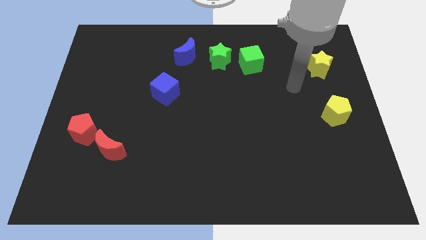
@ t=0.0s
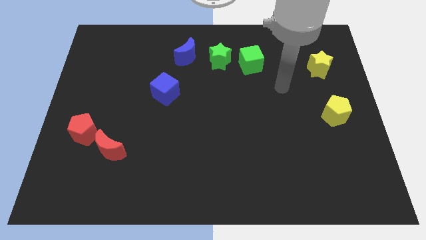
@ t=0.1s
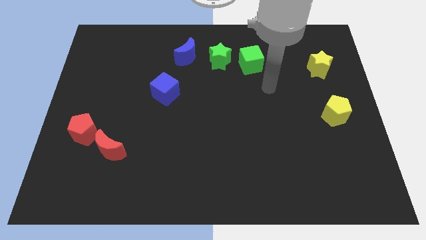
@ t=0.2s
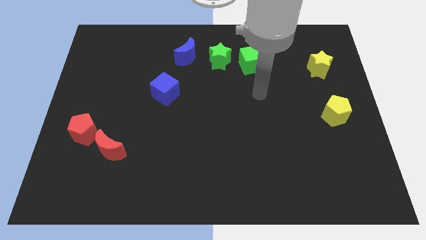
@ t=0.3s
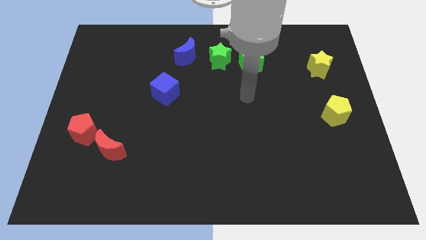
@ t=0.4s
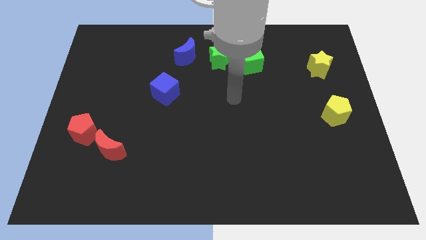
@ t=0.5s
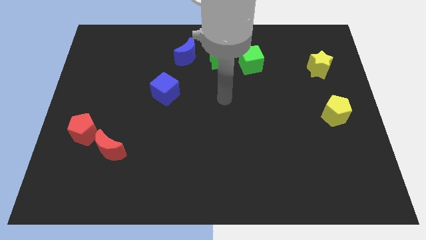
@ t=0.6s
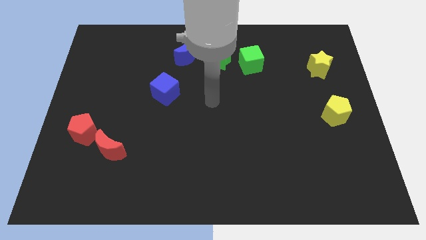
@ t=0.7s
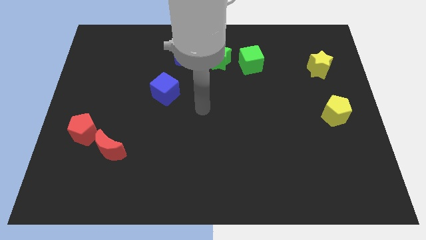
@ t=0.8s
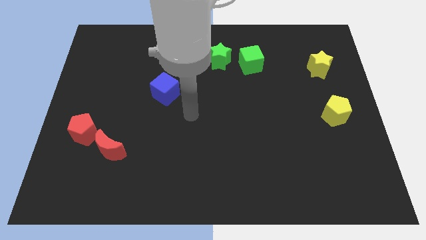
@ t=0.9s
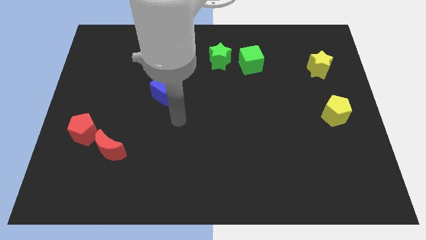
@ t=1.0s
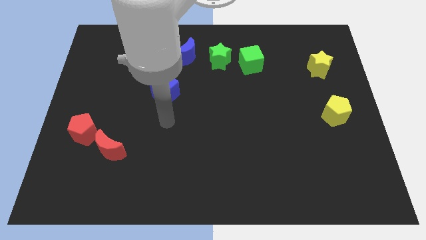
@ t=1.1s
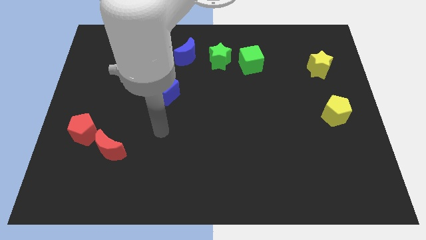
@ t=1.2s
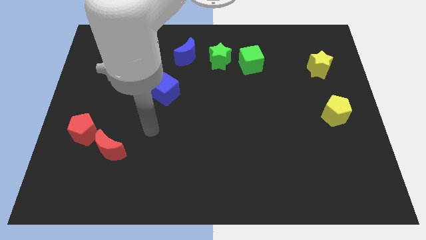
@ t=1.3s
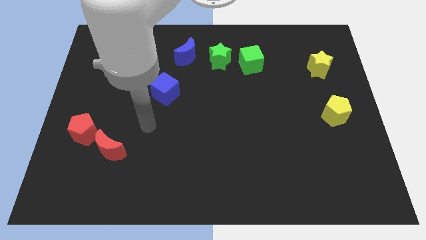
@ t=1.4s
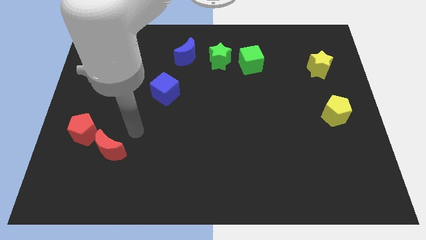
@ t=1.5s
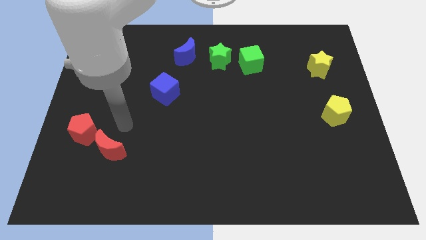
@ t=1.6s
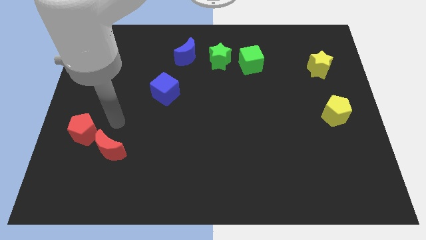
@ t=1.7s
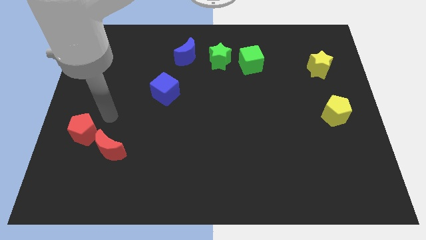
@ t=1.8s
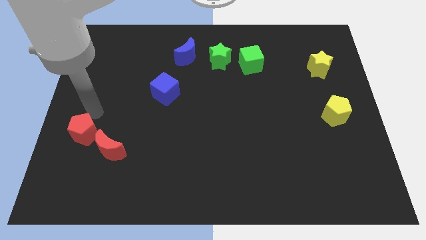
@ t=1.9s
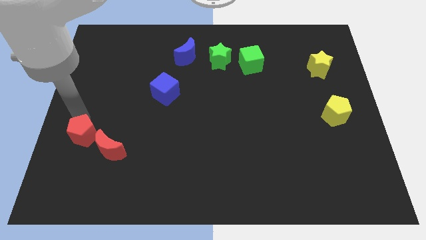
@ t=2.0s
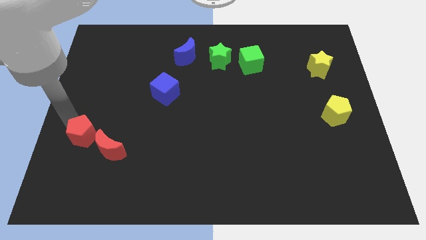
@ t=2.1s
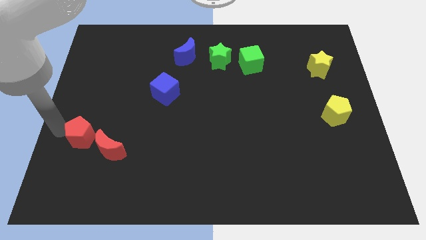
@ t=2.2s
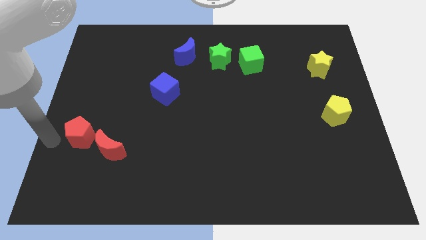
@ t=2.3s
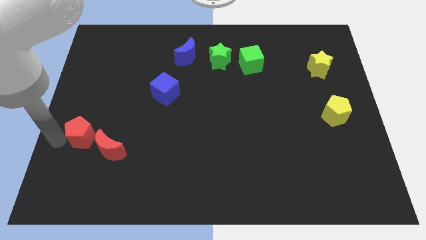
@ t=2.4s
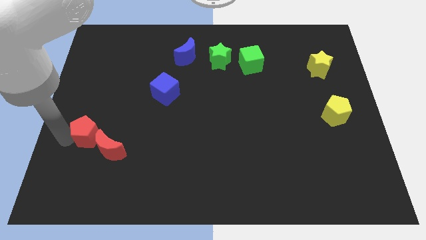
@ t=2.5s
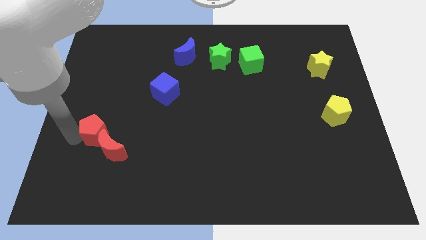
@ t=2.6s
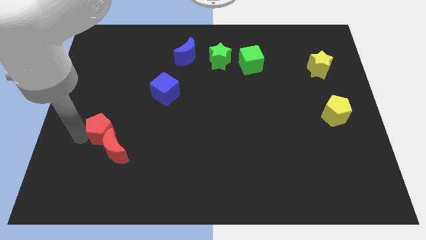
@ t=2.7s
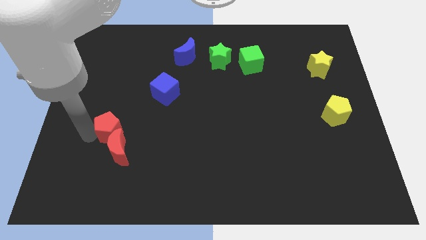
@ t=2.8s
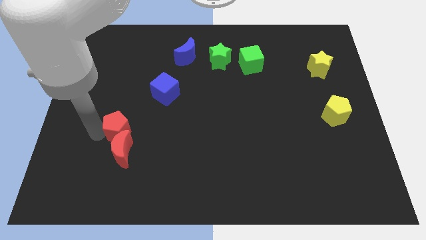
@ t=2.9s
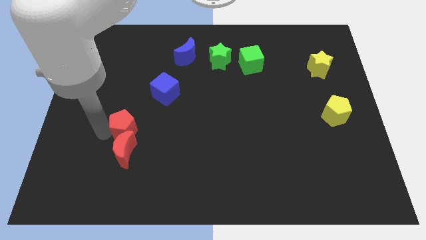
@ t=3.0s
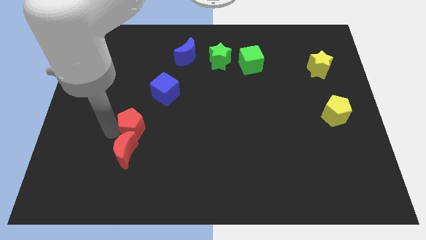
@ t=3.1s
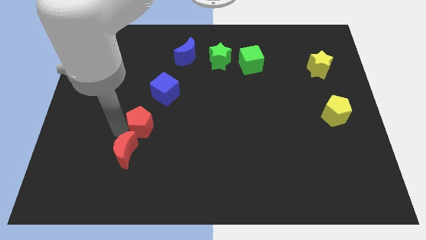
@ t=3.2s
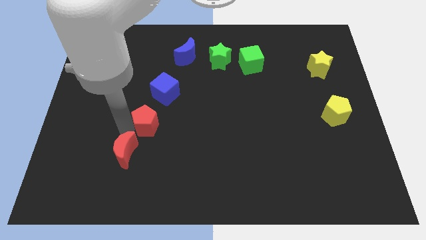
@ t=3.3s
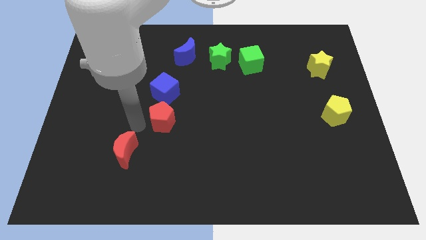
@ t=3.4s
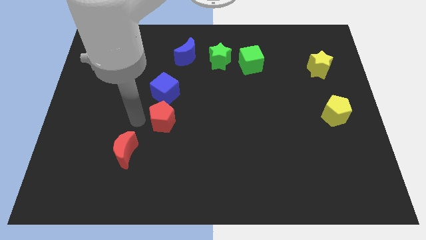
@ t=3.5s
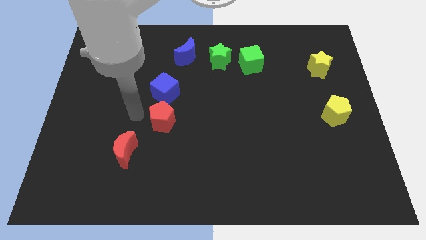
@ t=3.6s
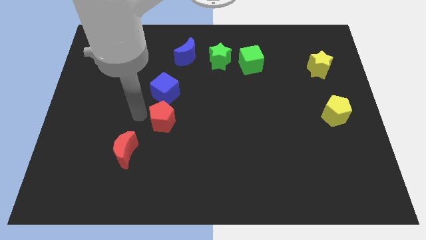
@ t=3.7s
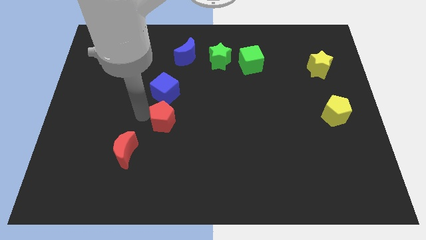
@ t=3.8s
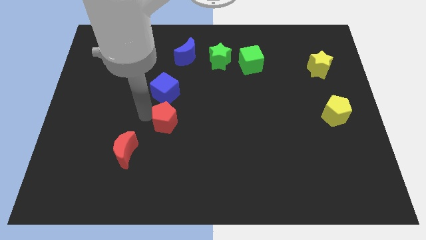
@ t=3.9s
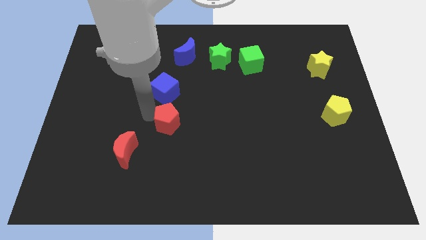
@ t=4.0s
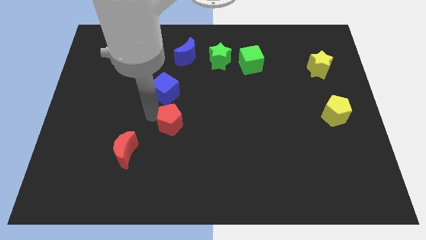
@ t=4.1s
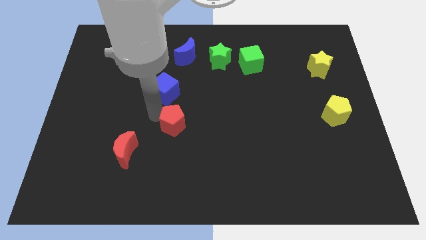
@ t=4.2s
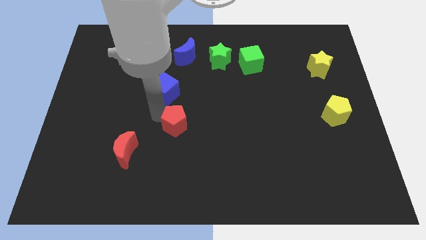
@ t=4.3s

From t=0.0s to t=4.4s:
push the red pentagon right

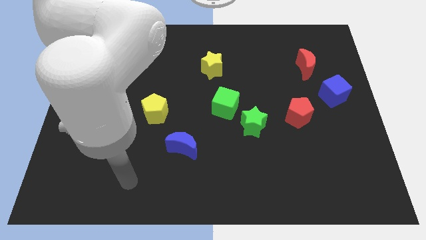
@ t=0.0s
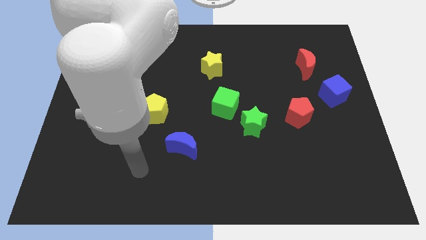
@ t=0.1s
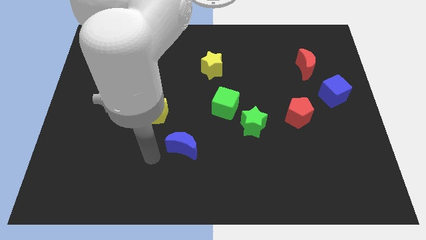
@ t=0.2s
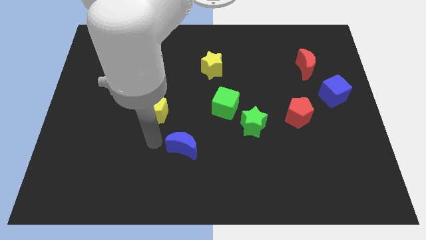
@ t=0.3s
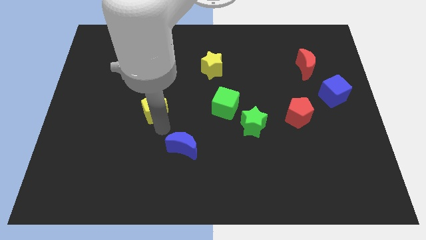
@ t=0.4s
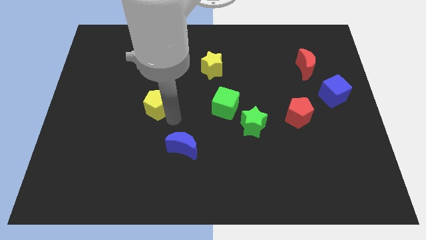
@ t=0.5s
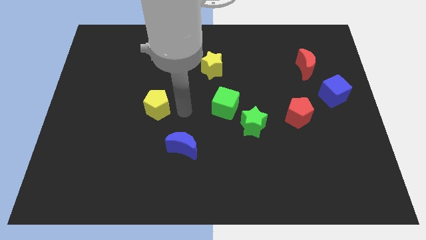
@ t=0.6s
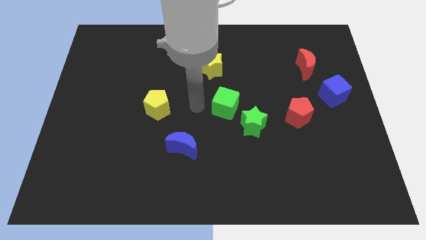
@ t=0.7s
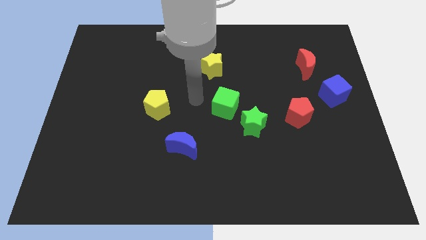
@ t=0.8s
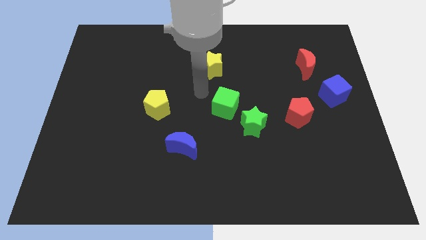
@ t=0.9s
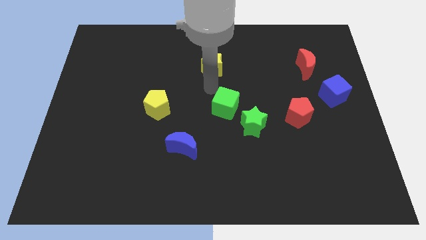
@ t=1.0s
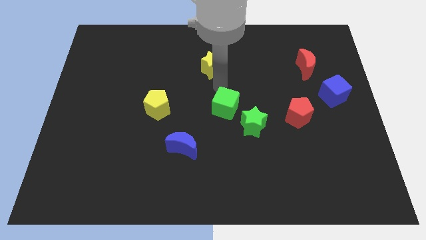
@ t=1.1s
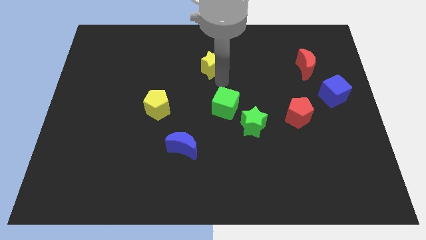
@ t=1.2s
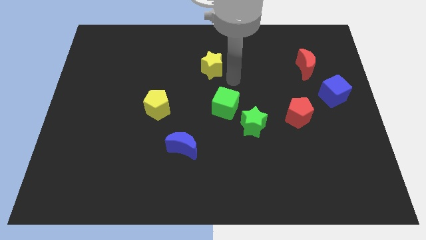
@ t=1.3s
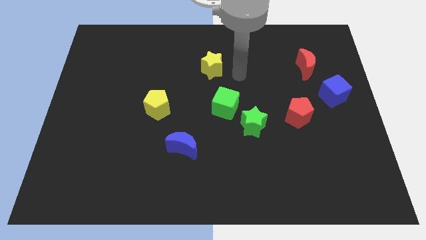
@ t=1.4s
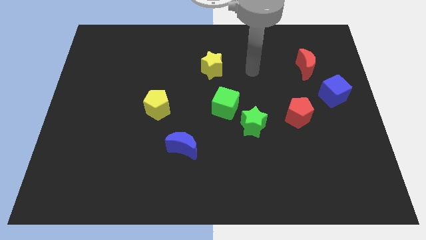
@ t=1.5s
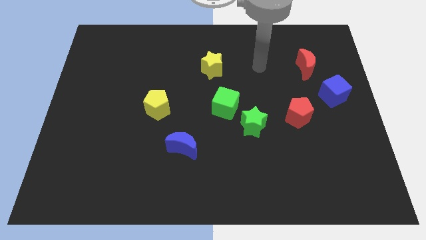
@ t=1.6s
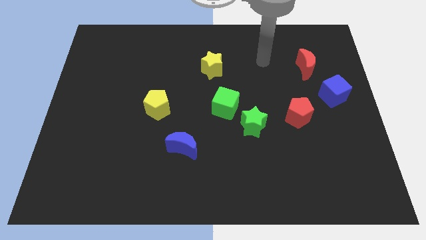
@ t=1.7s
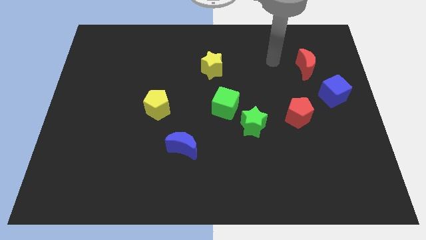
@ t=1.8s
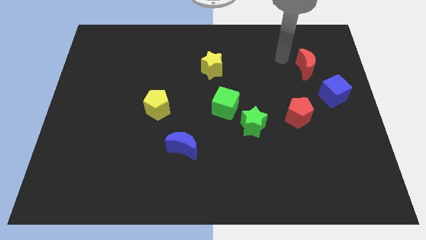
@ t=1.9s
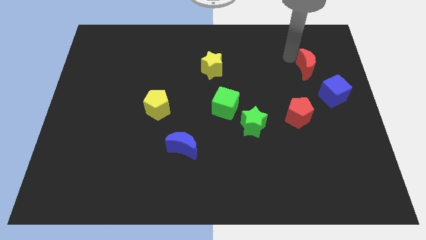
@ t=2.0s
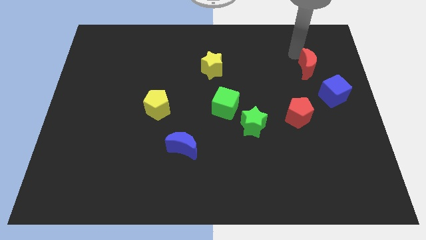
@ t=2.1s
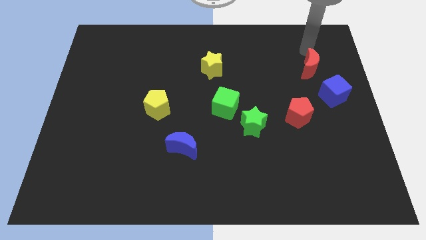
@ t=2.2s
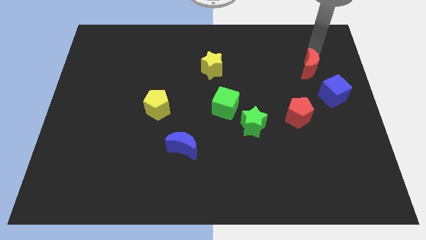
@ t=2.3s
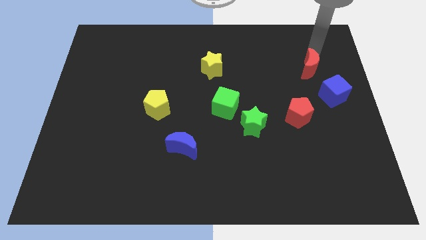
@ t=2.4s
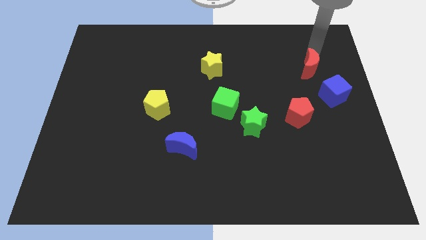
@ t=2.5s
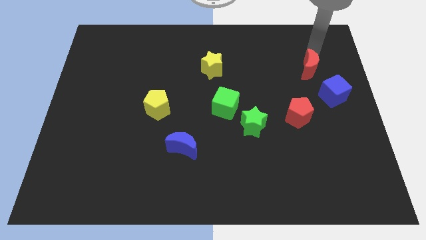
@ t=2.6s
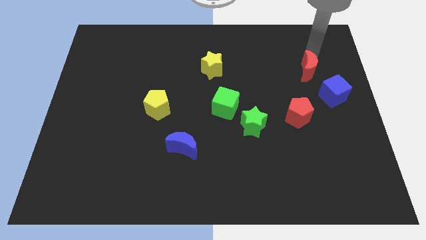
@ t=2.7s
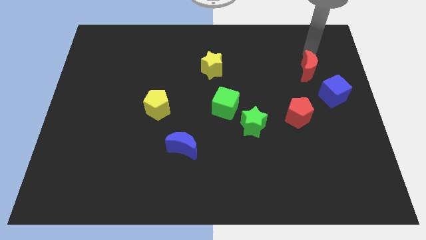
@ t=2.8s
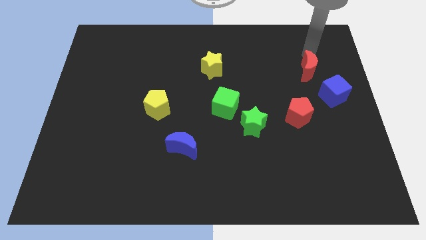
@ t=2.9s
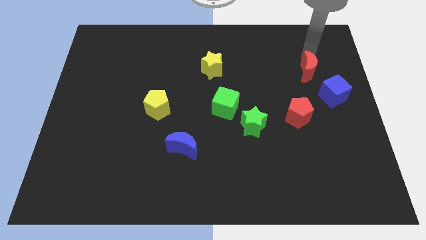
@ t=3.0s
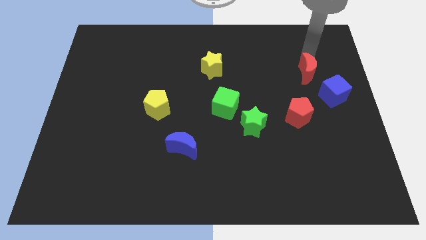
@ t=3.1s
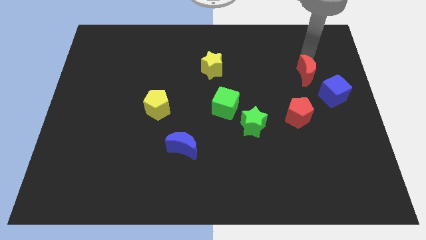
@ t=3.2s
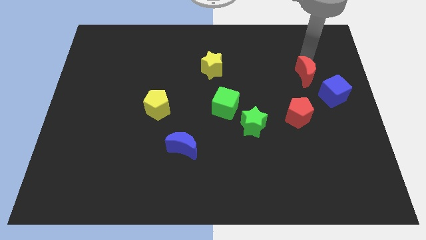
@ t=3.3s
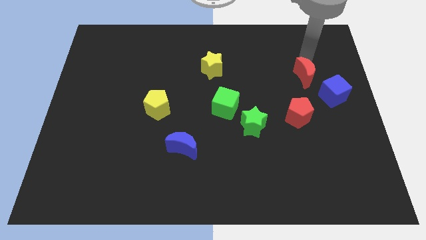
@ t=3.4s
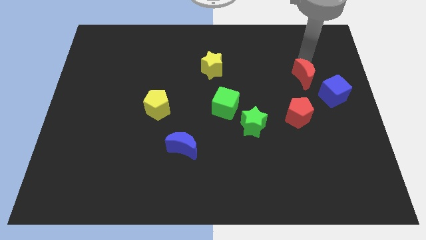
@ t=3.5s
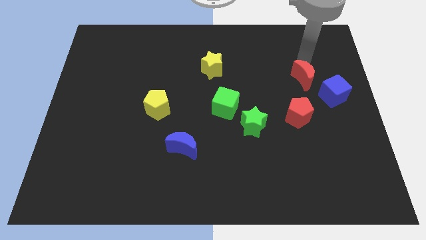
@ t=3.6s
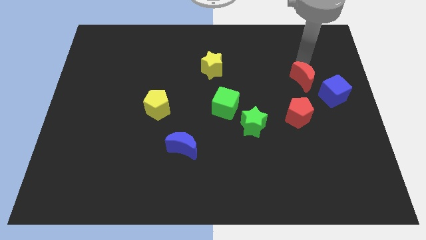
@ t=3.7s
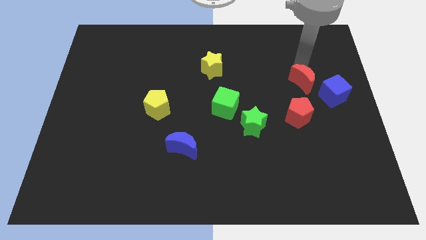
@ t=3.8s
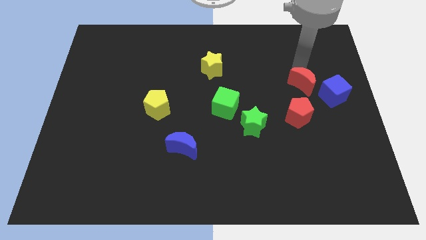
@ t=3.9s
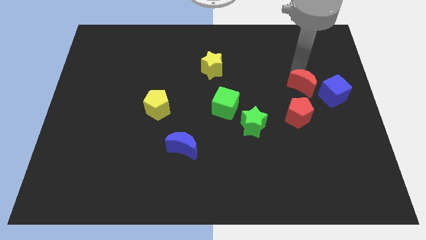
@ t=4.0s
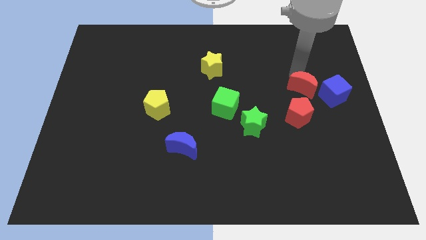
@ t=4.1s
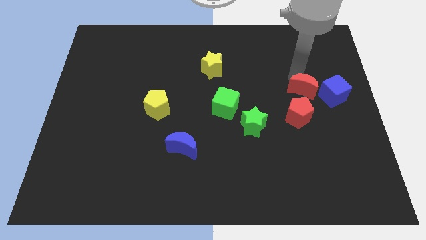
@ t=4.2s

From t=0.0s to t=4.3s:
push the red moon down a bit
